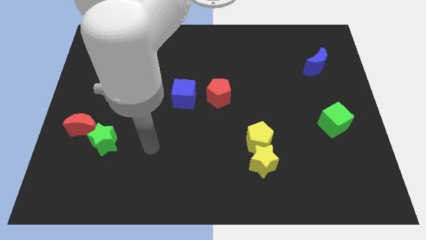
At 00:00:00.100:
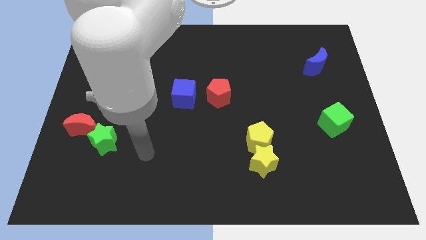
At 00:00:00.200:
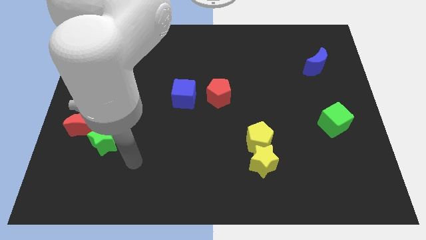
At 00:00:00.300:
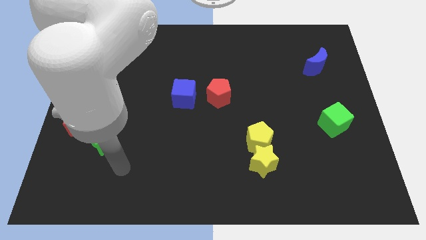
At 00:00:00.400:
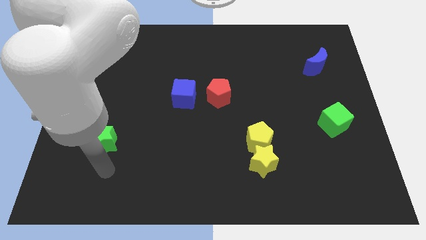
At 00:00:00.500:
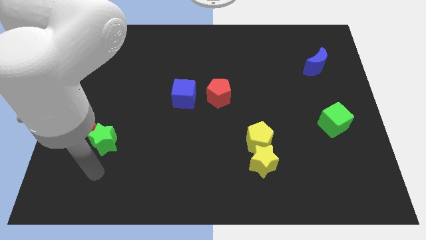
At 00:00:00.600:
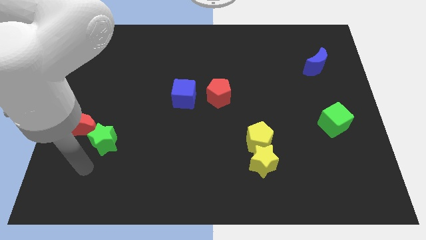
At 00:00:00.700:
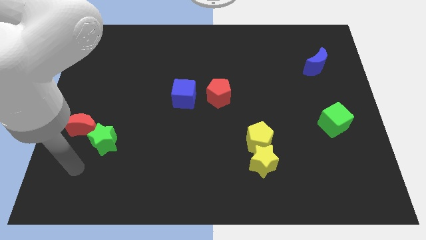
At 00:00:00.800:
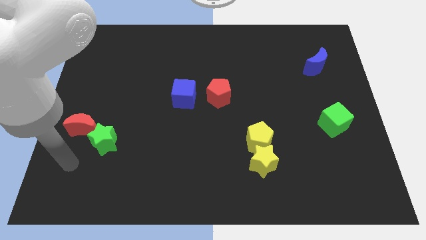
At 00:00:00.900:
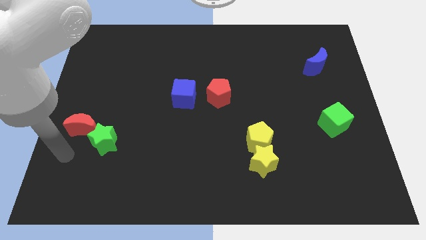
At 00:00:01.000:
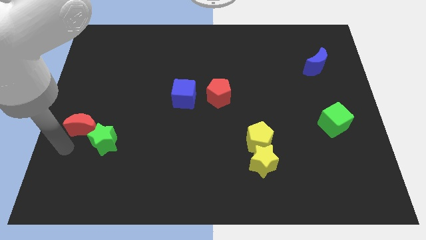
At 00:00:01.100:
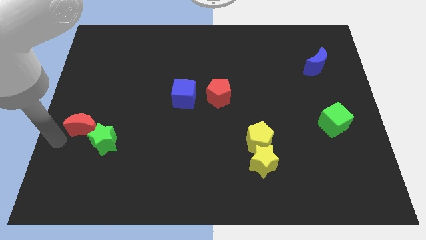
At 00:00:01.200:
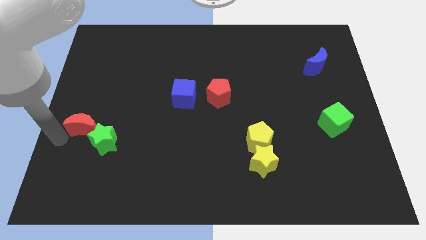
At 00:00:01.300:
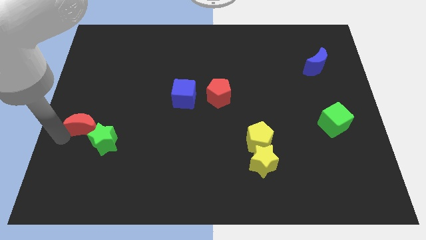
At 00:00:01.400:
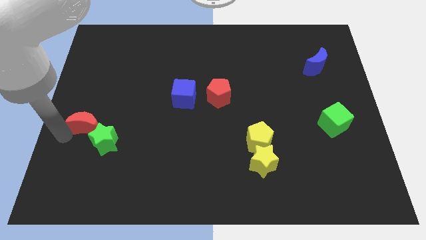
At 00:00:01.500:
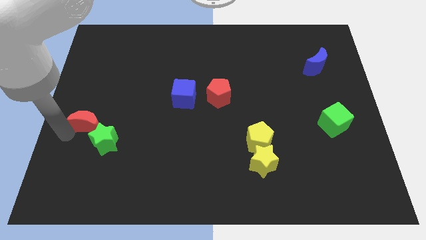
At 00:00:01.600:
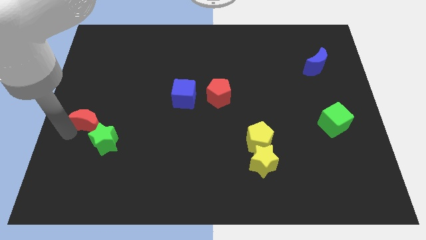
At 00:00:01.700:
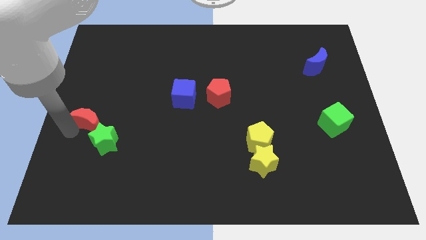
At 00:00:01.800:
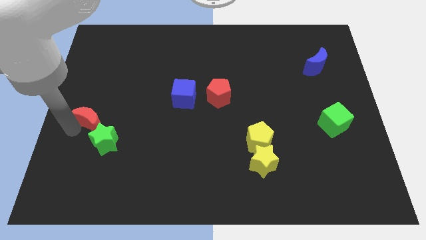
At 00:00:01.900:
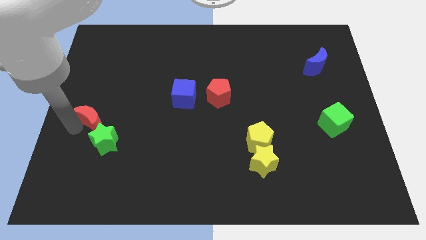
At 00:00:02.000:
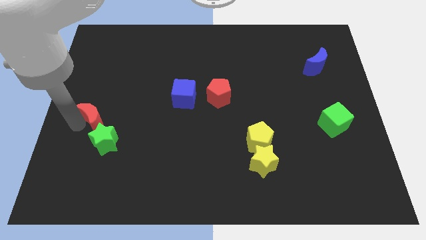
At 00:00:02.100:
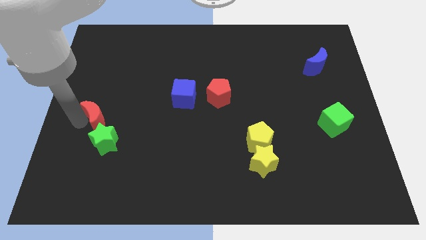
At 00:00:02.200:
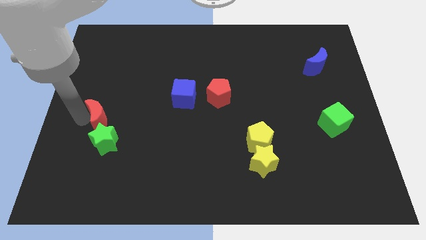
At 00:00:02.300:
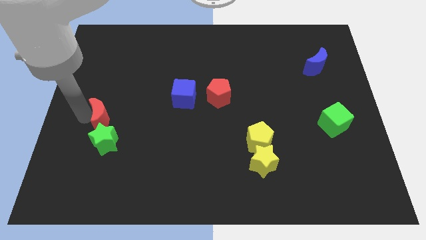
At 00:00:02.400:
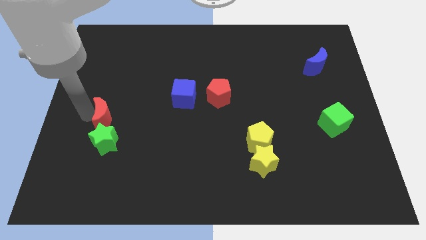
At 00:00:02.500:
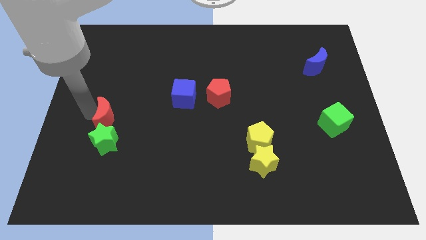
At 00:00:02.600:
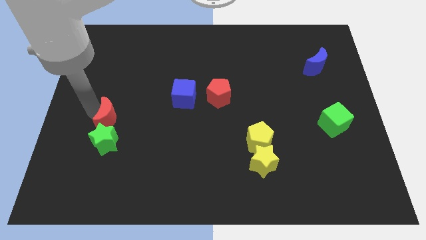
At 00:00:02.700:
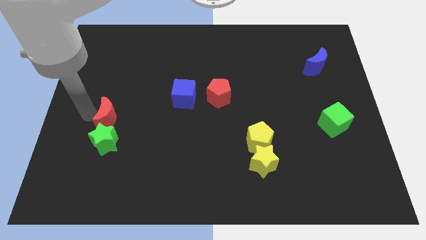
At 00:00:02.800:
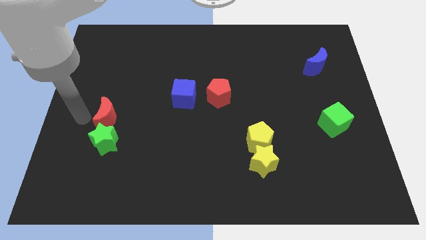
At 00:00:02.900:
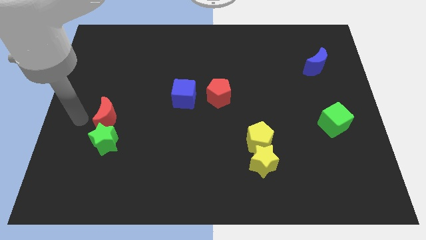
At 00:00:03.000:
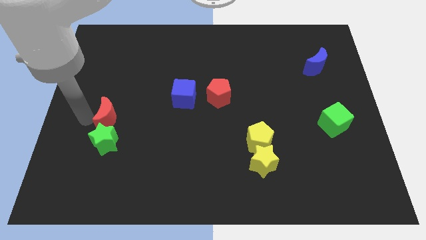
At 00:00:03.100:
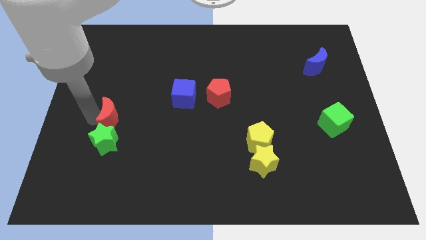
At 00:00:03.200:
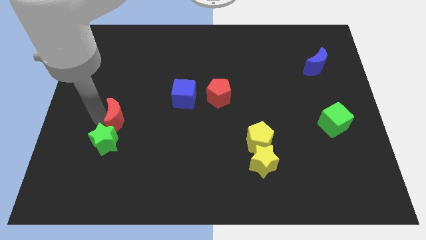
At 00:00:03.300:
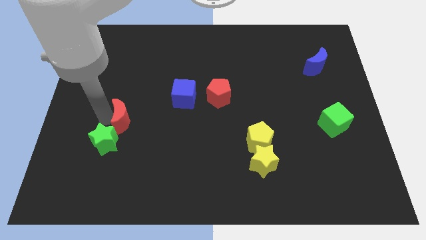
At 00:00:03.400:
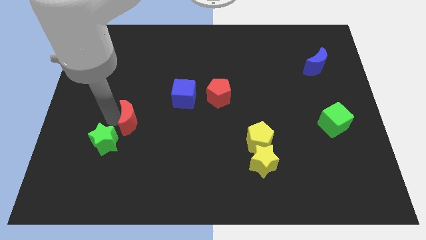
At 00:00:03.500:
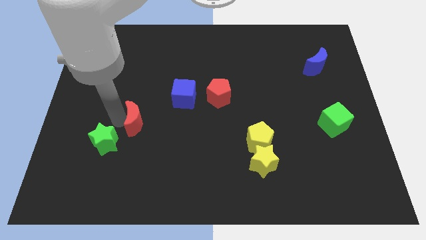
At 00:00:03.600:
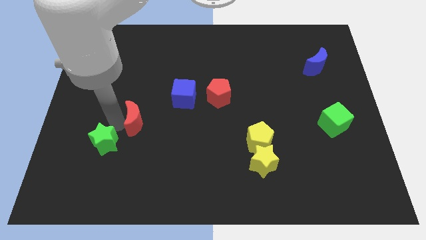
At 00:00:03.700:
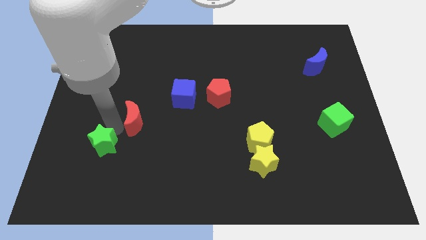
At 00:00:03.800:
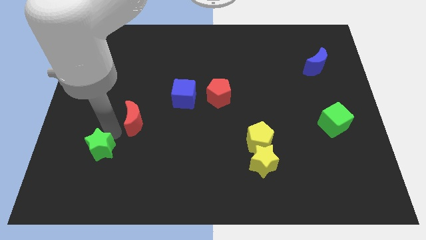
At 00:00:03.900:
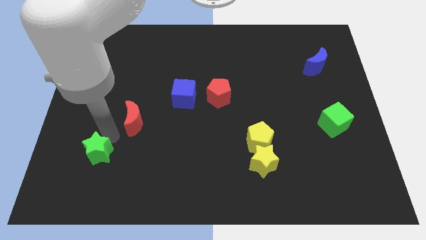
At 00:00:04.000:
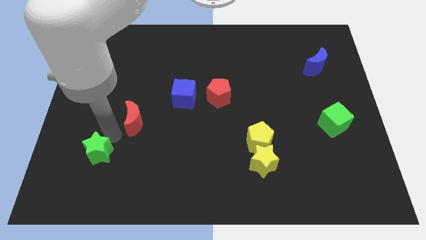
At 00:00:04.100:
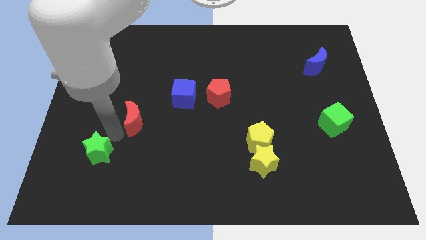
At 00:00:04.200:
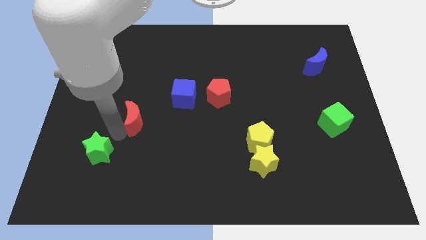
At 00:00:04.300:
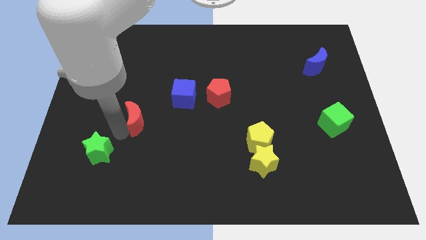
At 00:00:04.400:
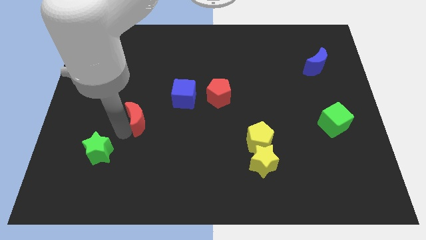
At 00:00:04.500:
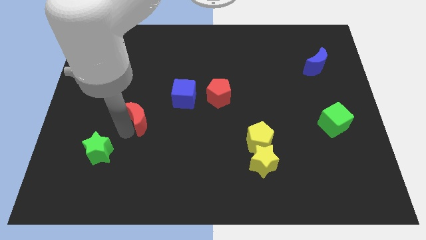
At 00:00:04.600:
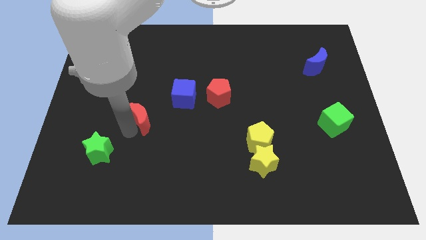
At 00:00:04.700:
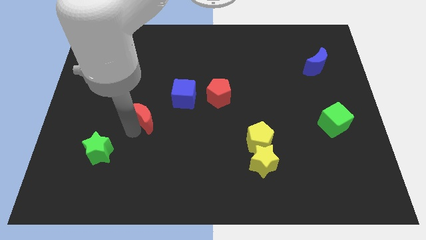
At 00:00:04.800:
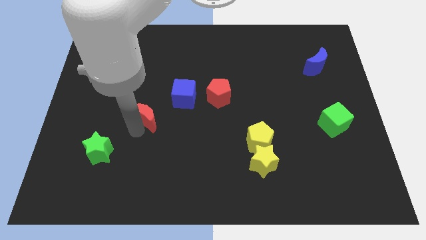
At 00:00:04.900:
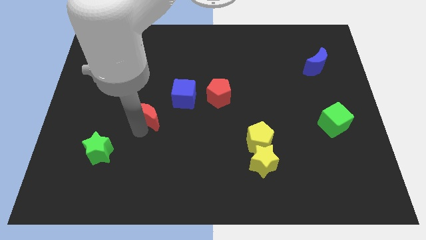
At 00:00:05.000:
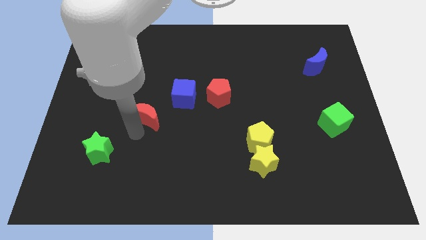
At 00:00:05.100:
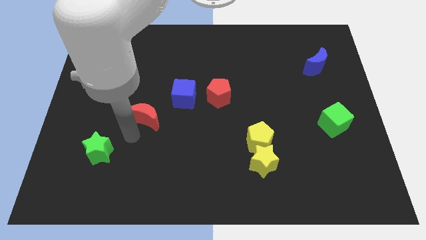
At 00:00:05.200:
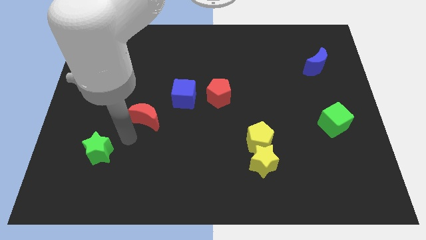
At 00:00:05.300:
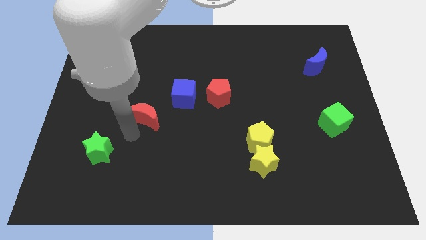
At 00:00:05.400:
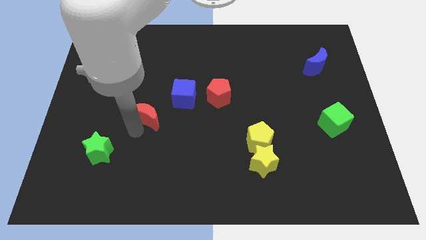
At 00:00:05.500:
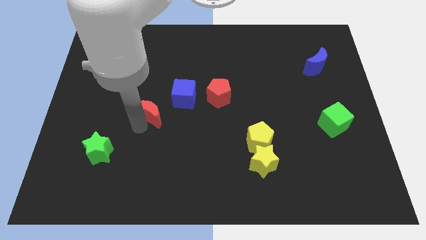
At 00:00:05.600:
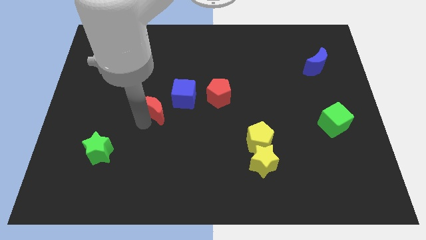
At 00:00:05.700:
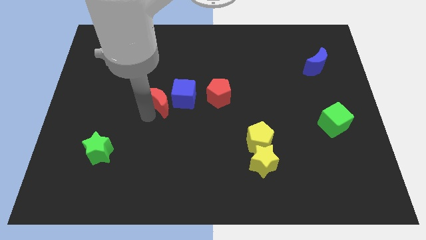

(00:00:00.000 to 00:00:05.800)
put the red moon next to the blue cube

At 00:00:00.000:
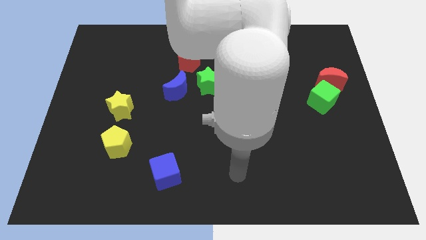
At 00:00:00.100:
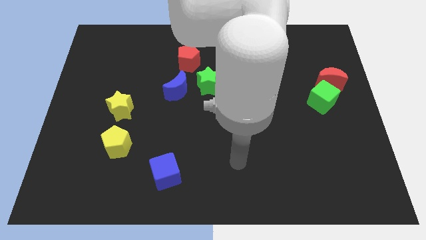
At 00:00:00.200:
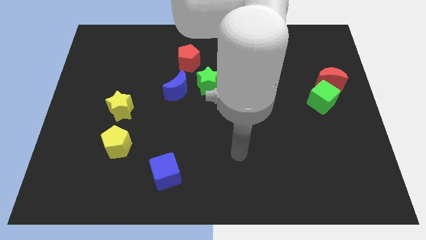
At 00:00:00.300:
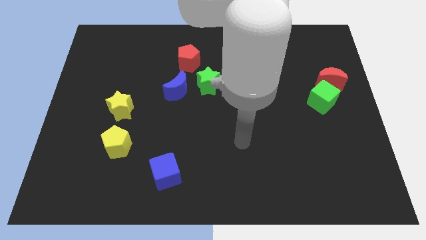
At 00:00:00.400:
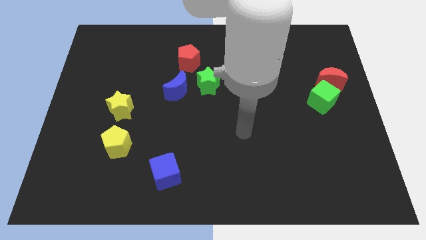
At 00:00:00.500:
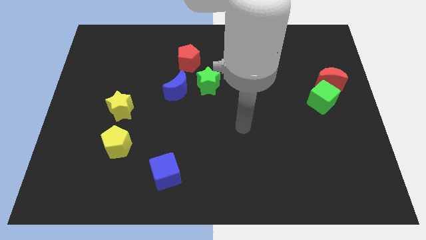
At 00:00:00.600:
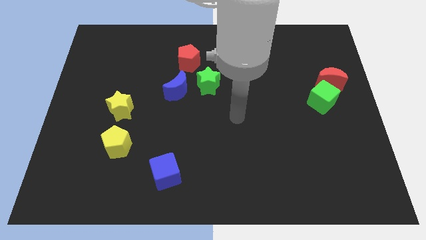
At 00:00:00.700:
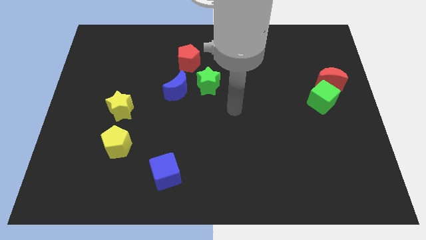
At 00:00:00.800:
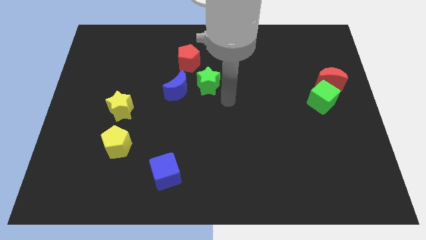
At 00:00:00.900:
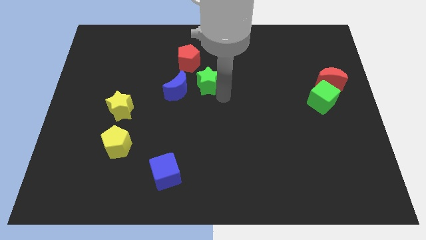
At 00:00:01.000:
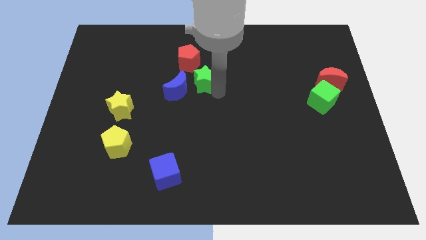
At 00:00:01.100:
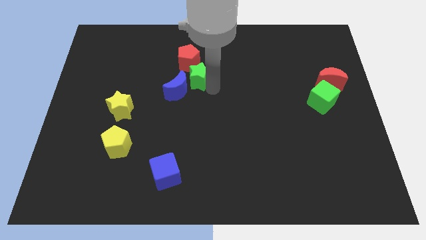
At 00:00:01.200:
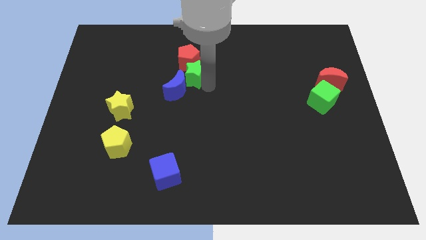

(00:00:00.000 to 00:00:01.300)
slide the green star to the red pentagon
